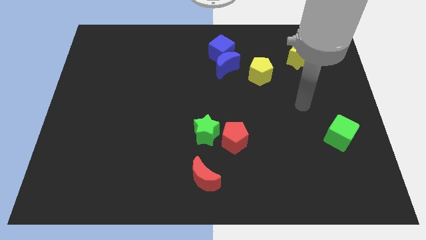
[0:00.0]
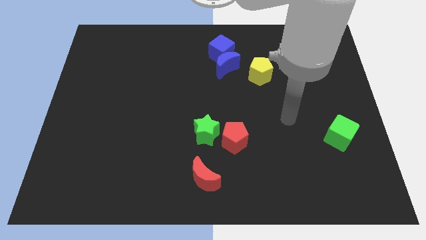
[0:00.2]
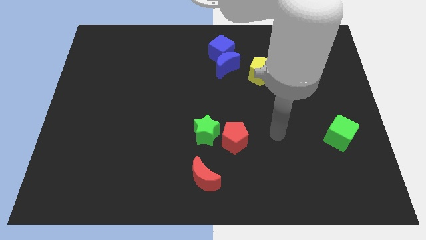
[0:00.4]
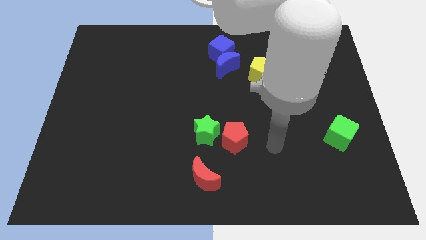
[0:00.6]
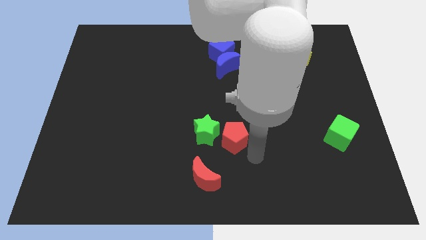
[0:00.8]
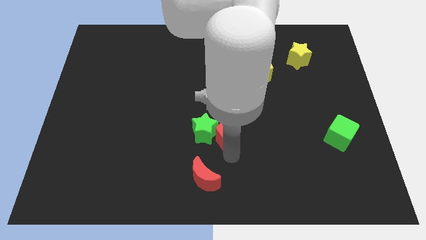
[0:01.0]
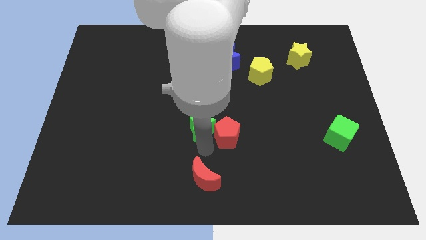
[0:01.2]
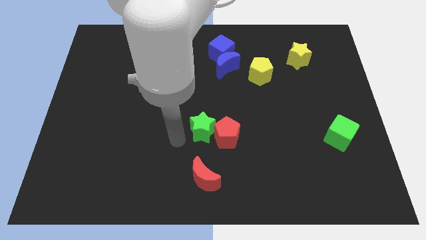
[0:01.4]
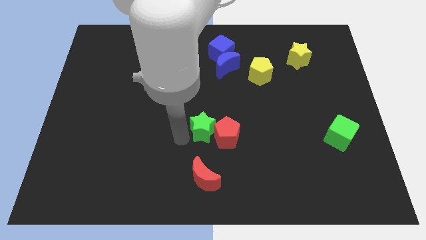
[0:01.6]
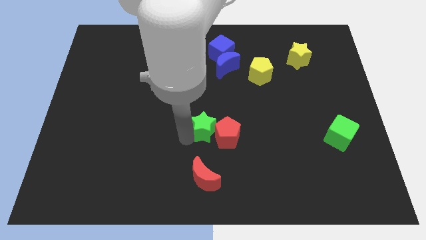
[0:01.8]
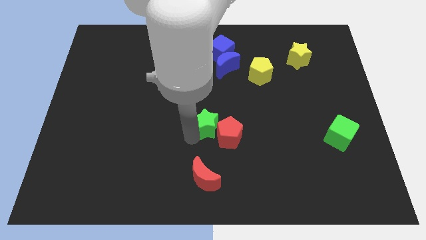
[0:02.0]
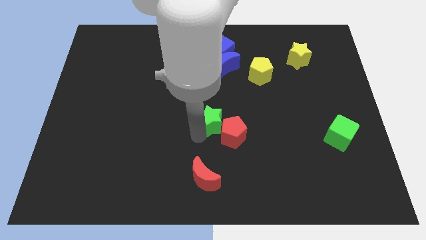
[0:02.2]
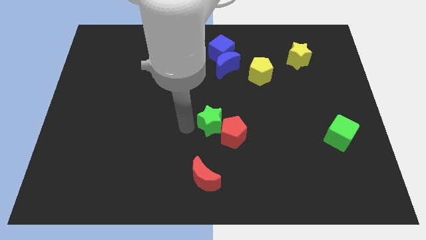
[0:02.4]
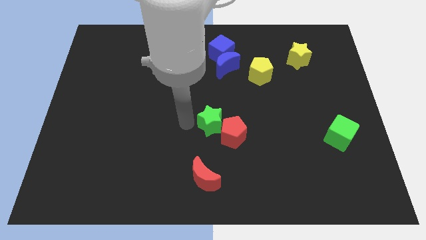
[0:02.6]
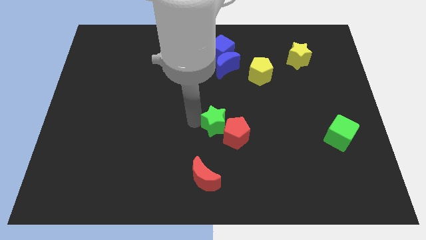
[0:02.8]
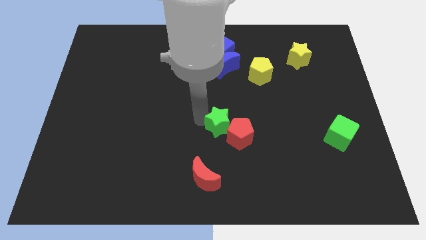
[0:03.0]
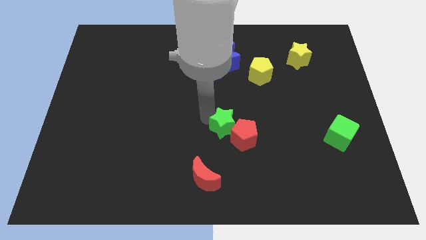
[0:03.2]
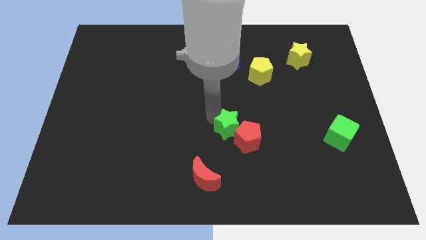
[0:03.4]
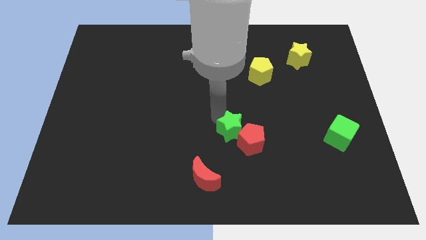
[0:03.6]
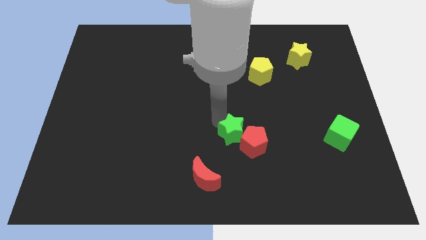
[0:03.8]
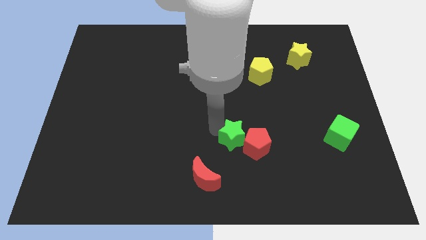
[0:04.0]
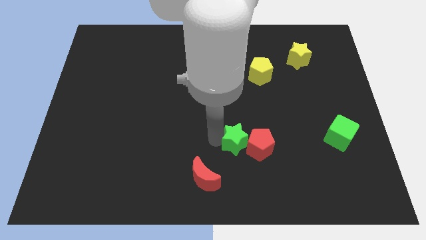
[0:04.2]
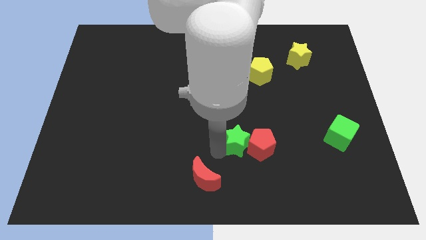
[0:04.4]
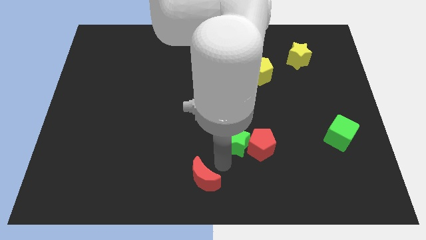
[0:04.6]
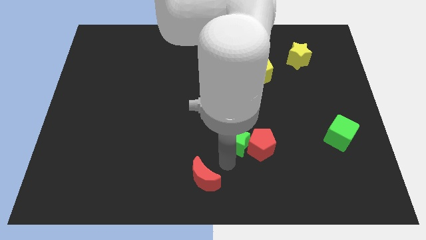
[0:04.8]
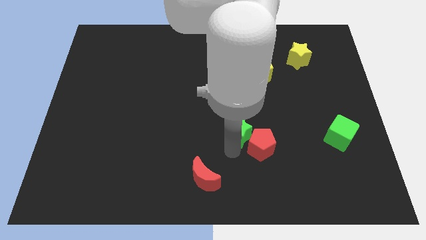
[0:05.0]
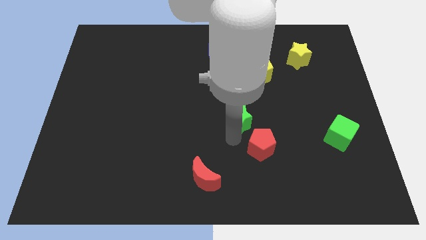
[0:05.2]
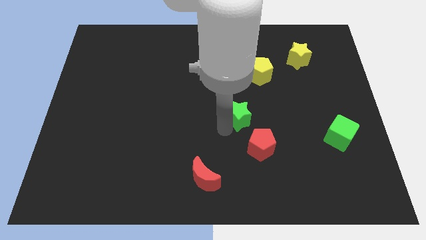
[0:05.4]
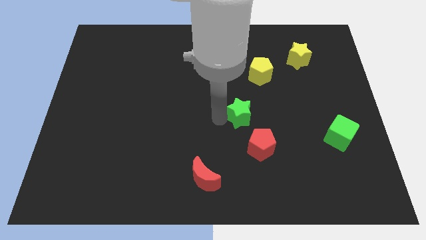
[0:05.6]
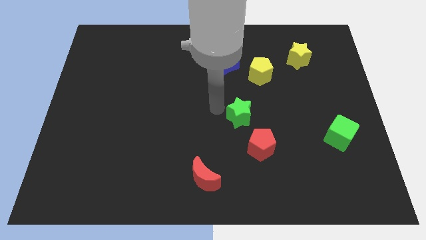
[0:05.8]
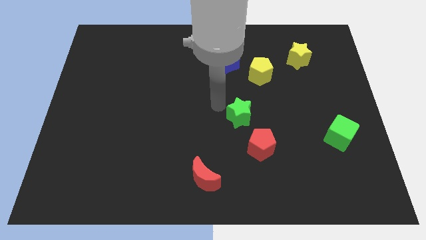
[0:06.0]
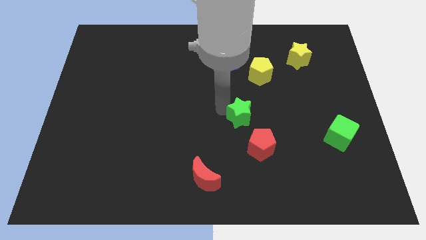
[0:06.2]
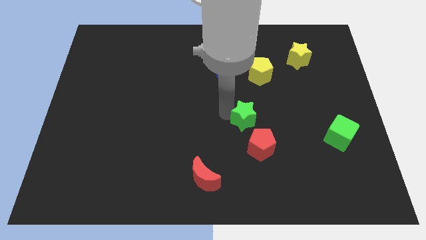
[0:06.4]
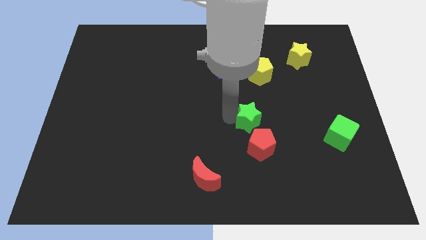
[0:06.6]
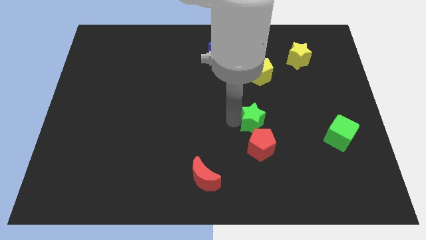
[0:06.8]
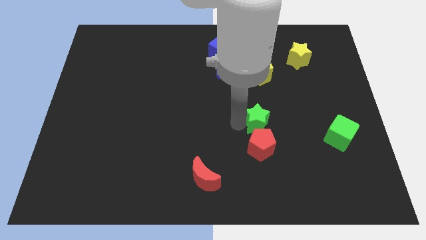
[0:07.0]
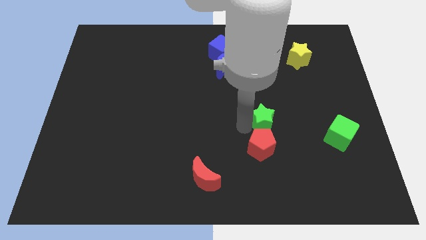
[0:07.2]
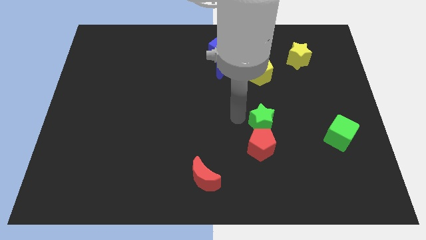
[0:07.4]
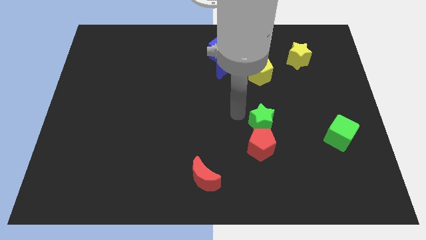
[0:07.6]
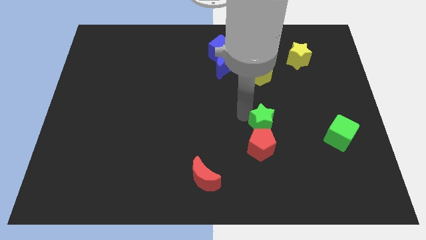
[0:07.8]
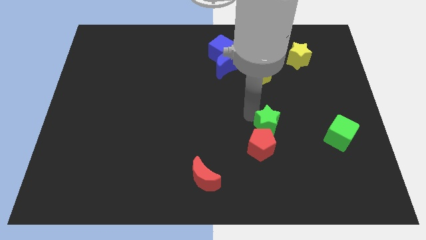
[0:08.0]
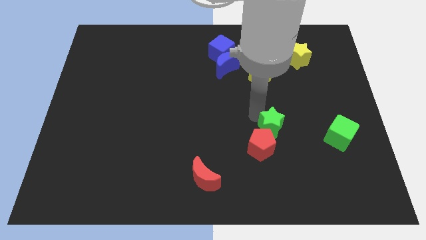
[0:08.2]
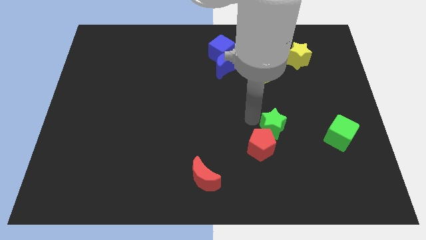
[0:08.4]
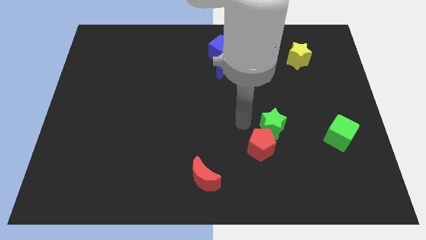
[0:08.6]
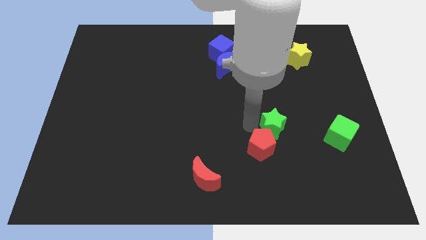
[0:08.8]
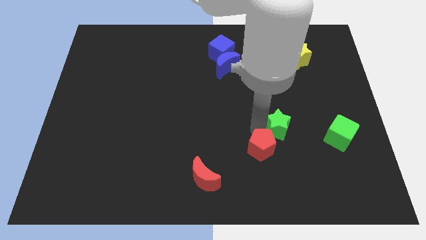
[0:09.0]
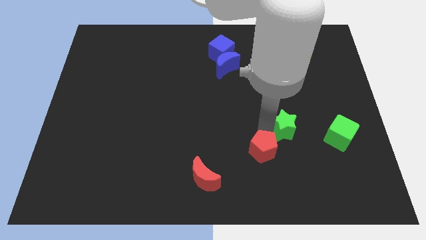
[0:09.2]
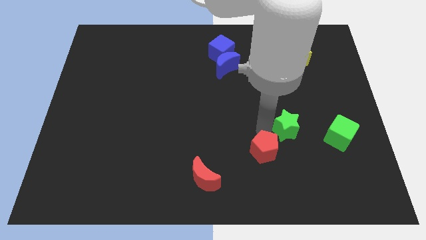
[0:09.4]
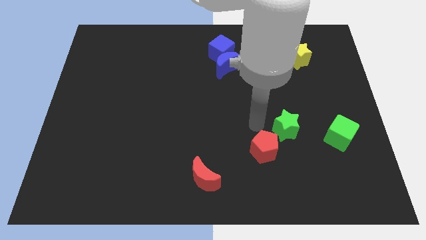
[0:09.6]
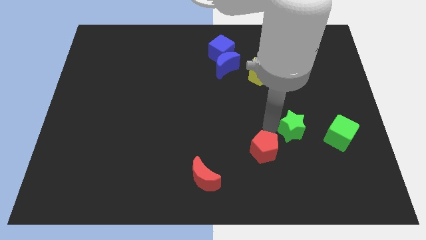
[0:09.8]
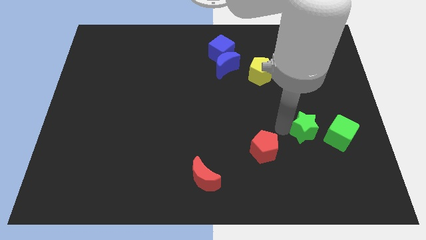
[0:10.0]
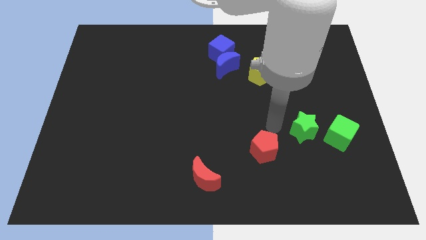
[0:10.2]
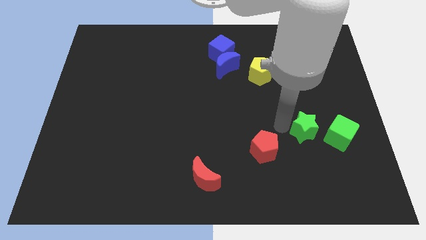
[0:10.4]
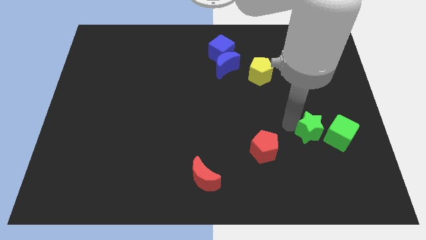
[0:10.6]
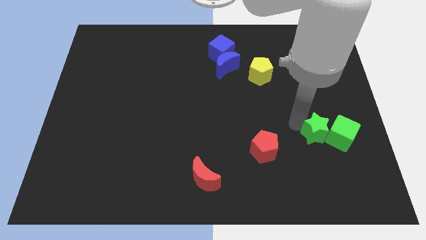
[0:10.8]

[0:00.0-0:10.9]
slide the green star next to the green cube

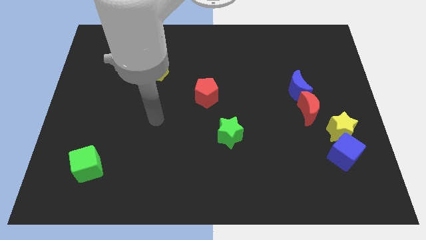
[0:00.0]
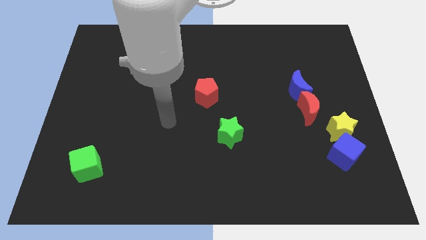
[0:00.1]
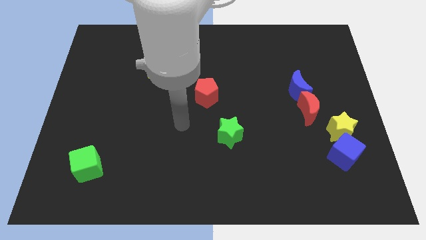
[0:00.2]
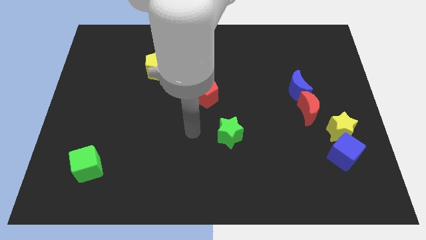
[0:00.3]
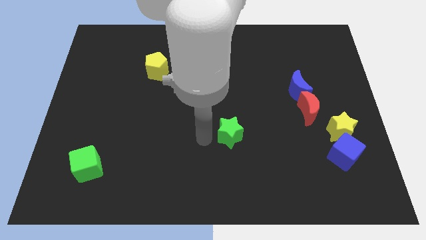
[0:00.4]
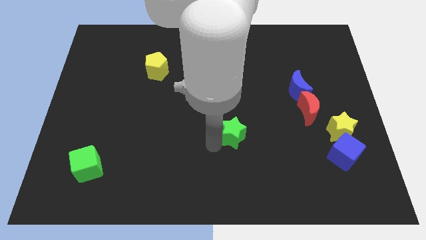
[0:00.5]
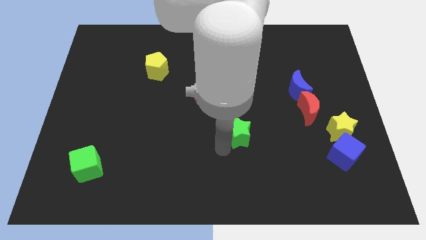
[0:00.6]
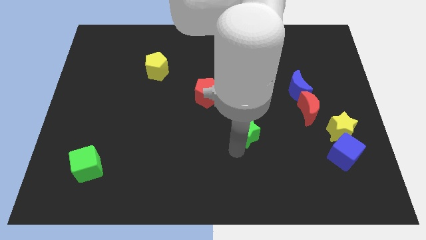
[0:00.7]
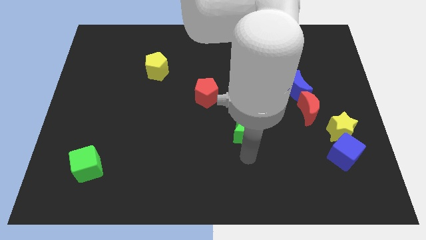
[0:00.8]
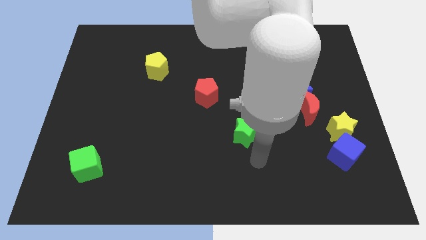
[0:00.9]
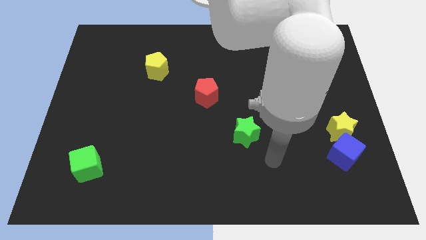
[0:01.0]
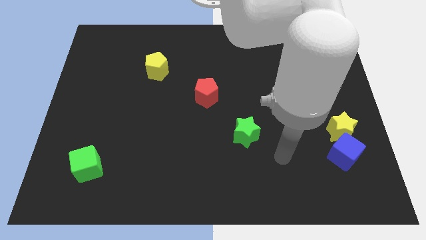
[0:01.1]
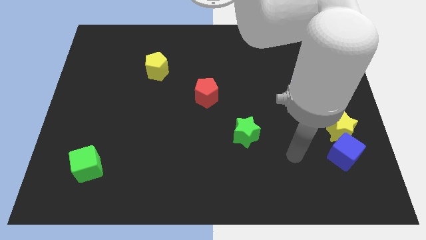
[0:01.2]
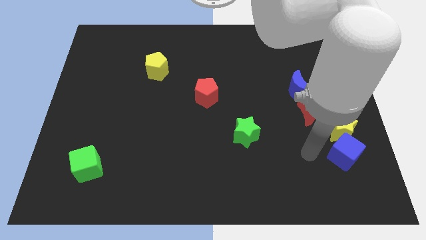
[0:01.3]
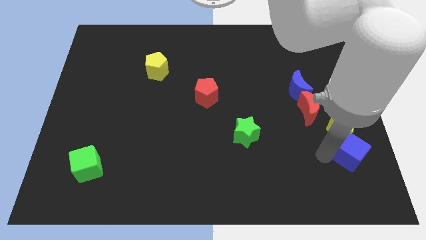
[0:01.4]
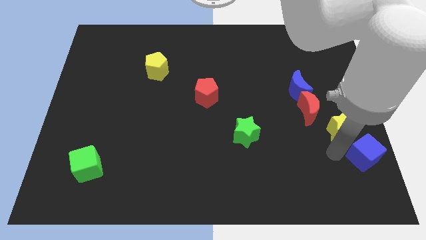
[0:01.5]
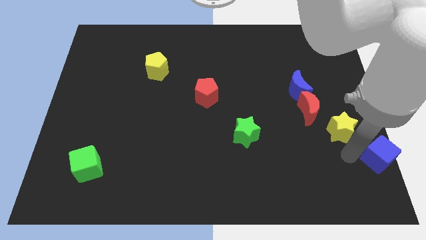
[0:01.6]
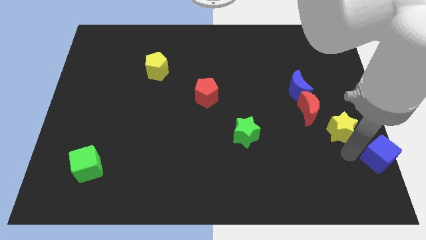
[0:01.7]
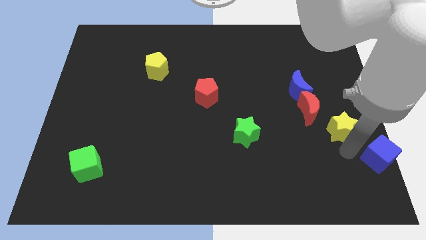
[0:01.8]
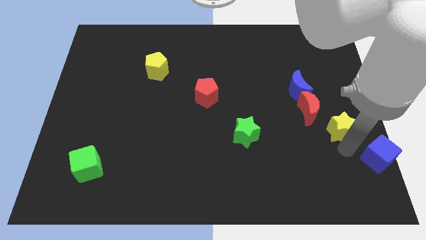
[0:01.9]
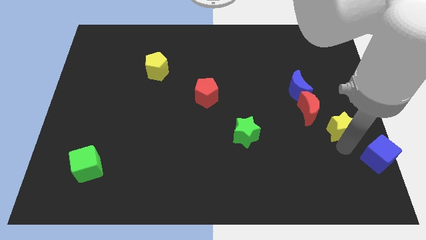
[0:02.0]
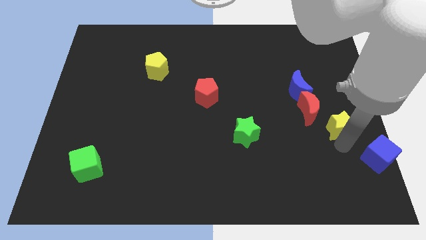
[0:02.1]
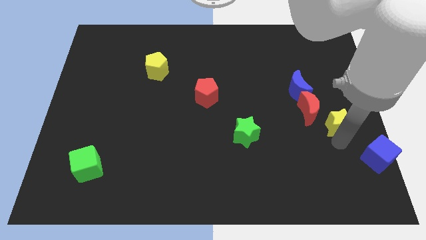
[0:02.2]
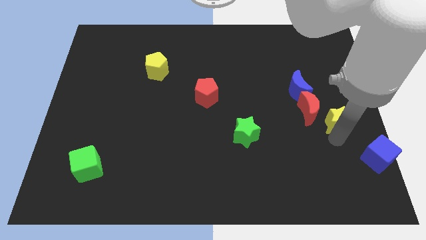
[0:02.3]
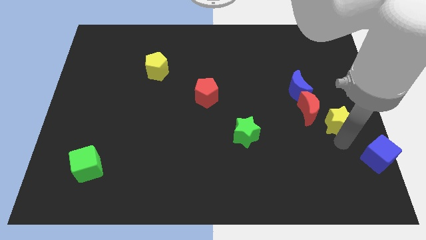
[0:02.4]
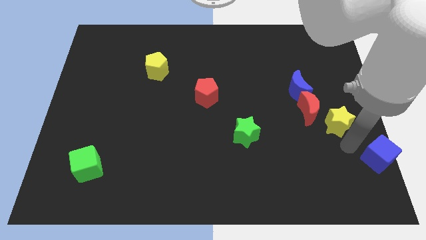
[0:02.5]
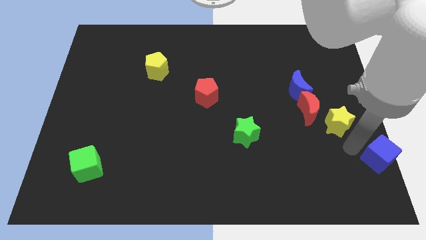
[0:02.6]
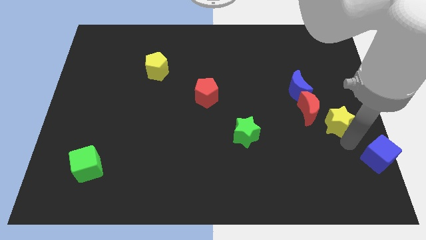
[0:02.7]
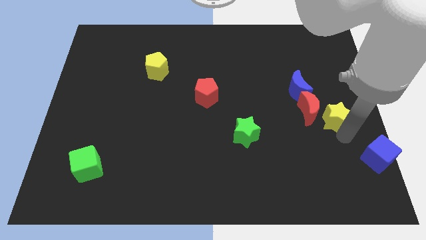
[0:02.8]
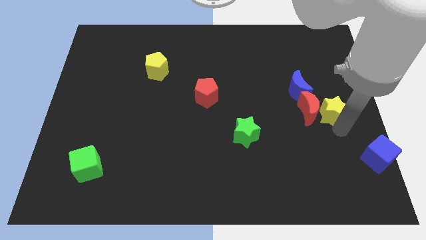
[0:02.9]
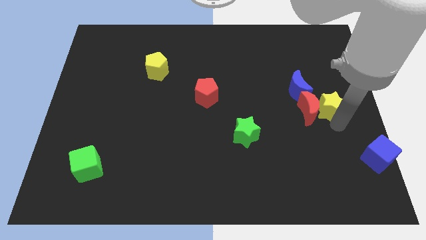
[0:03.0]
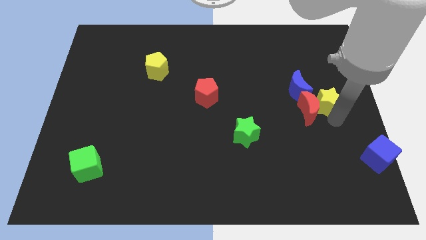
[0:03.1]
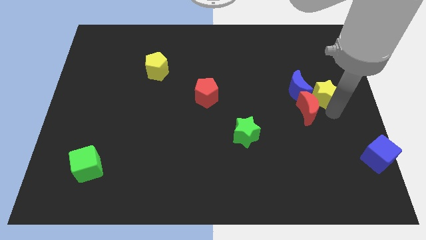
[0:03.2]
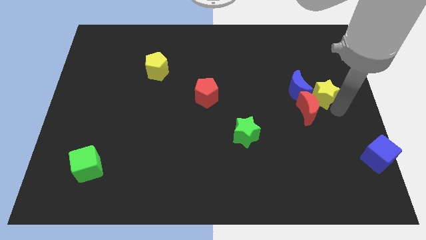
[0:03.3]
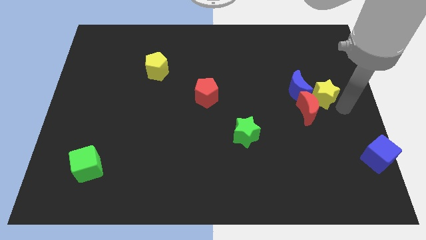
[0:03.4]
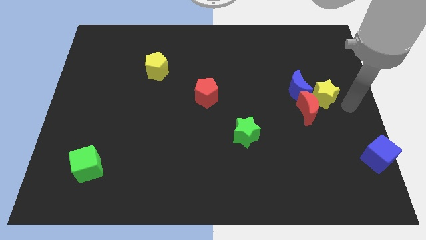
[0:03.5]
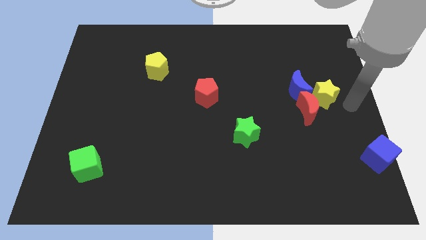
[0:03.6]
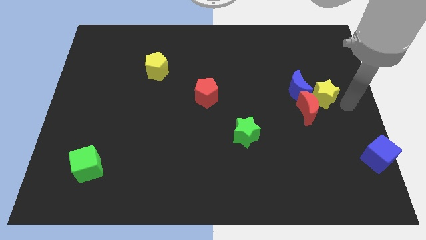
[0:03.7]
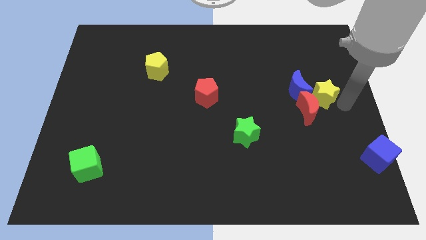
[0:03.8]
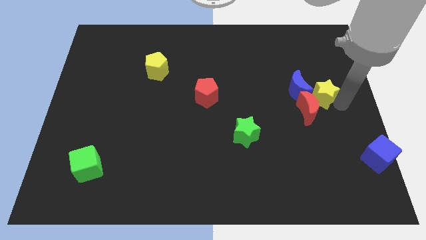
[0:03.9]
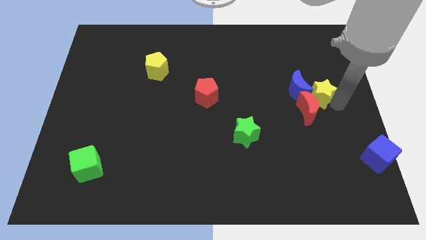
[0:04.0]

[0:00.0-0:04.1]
put the yellow star close to the blue moon
